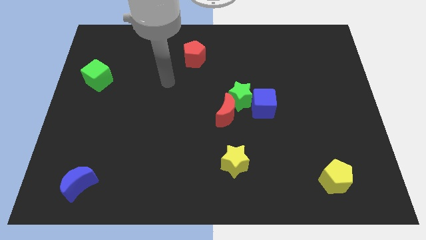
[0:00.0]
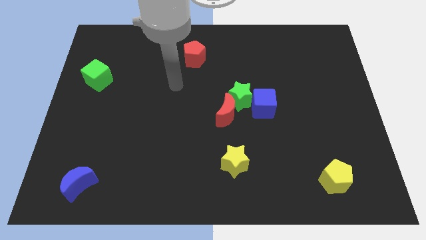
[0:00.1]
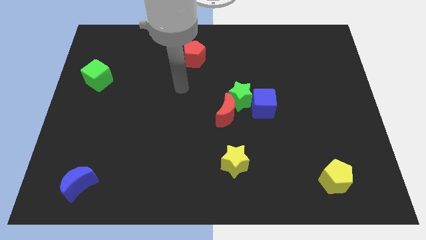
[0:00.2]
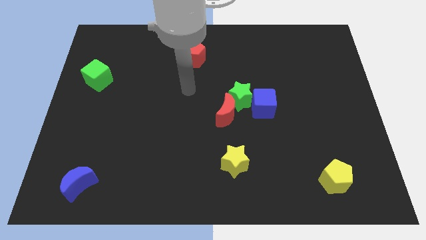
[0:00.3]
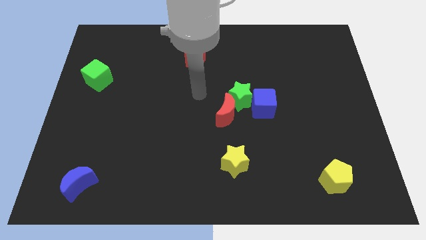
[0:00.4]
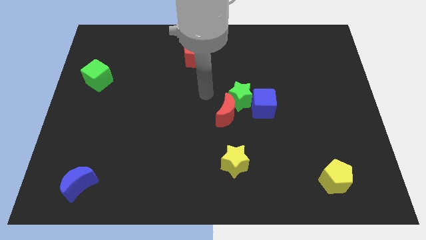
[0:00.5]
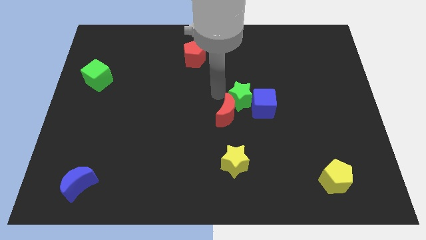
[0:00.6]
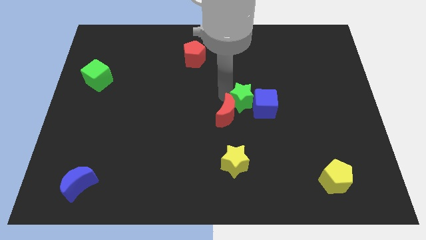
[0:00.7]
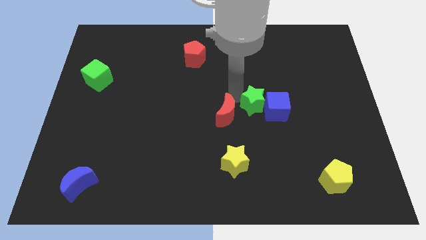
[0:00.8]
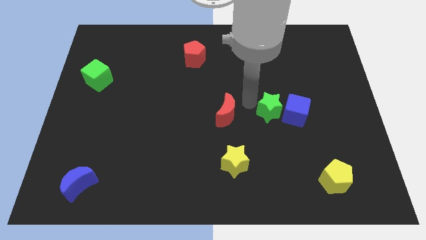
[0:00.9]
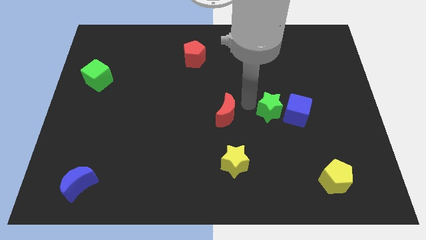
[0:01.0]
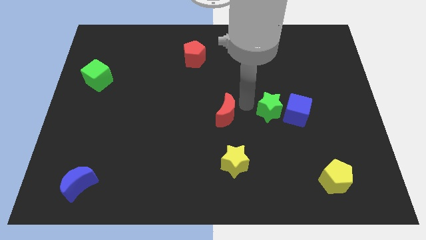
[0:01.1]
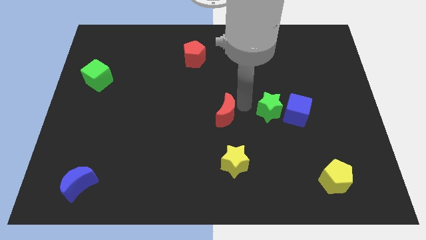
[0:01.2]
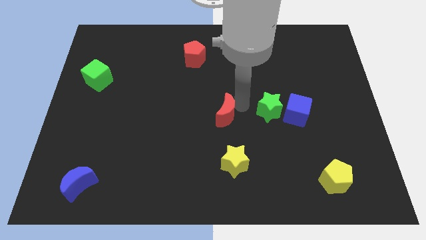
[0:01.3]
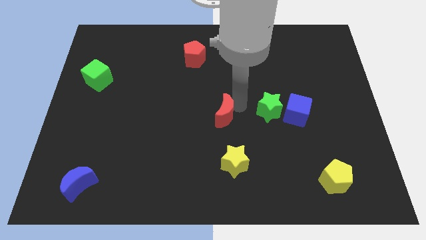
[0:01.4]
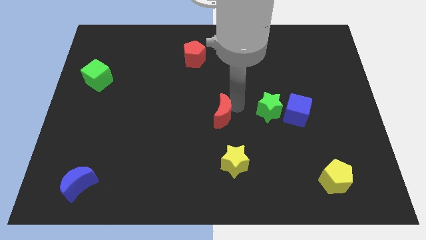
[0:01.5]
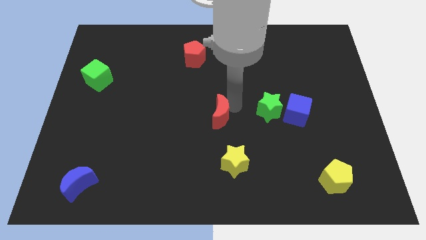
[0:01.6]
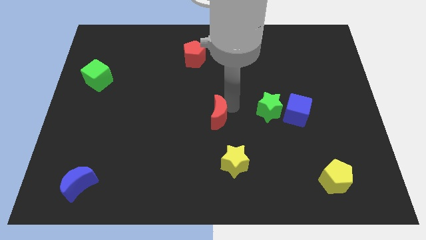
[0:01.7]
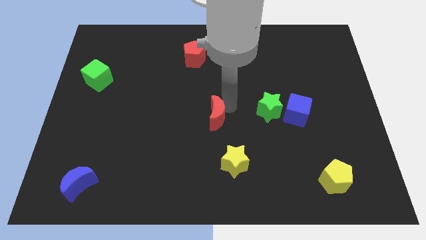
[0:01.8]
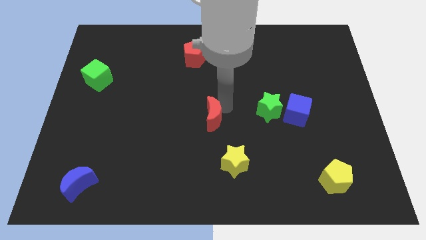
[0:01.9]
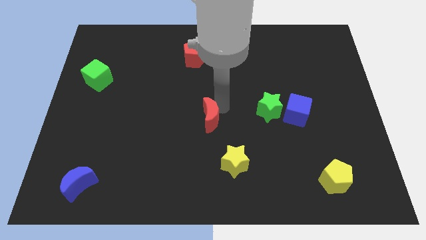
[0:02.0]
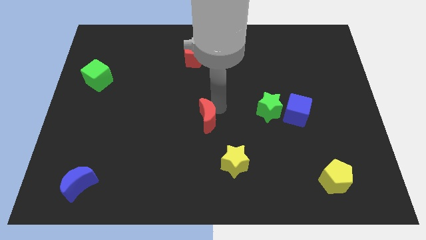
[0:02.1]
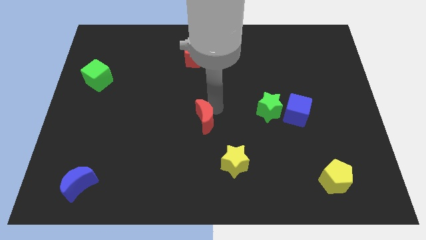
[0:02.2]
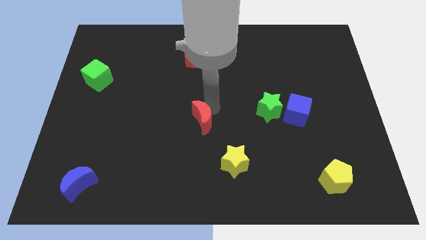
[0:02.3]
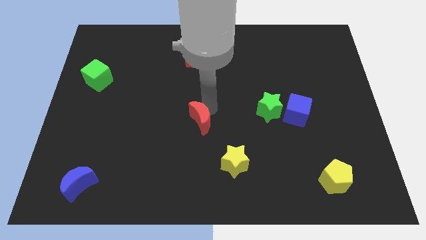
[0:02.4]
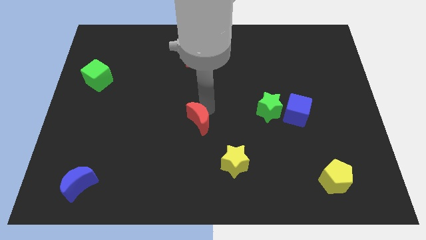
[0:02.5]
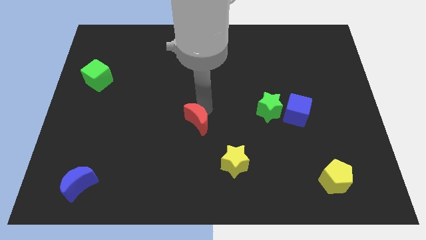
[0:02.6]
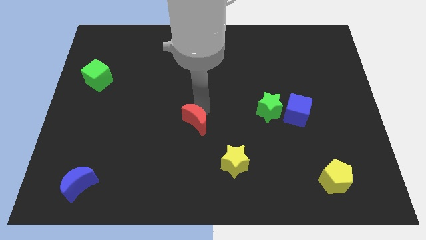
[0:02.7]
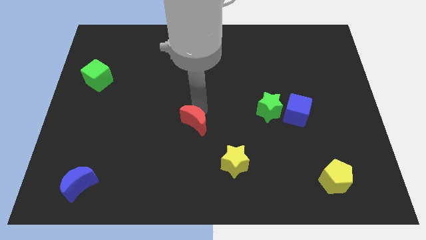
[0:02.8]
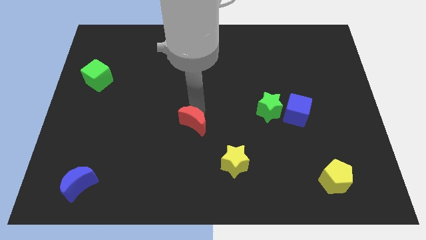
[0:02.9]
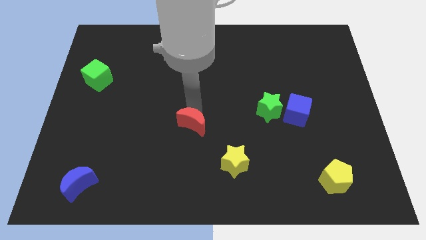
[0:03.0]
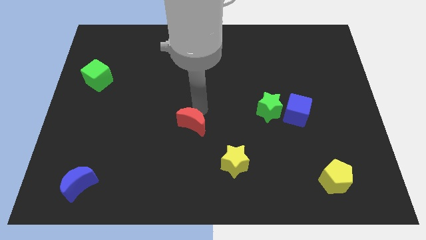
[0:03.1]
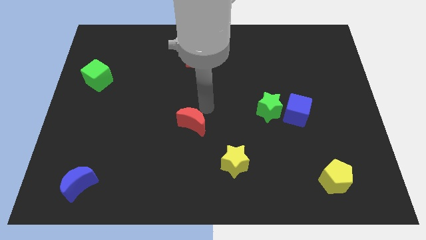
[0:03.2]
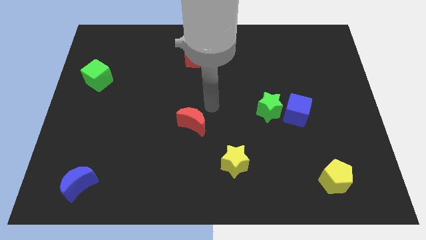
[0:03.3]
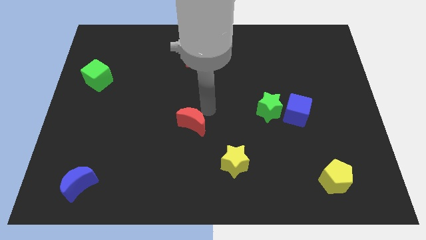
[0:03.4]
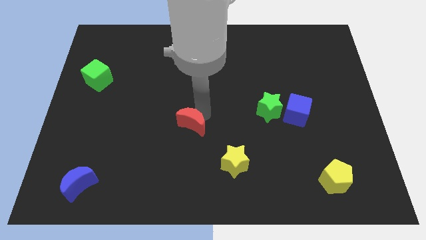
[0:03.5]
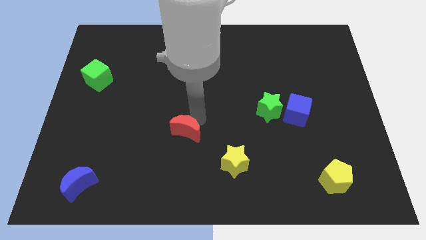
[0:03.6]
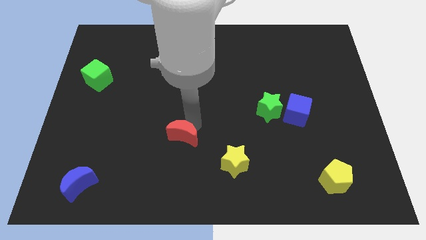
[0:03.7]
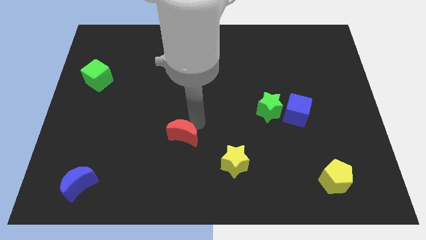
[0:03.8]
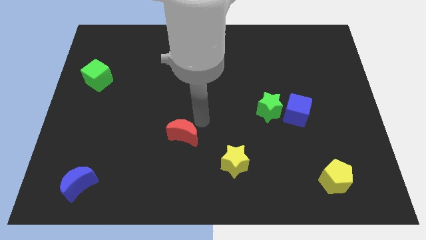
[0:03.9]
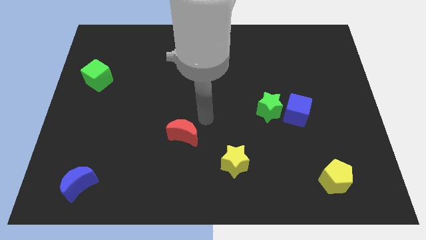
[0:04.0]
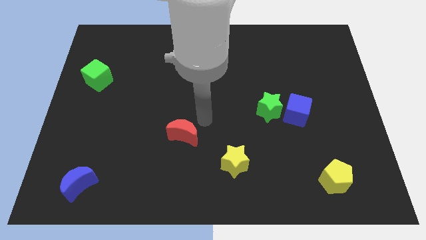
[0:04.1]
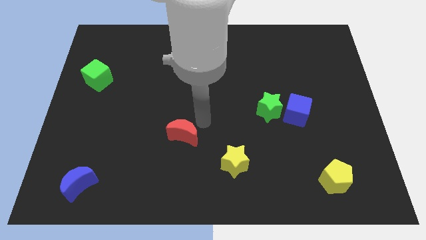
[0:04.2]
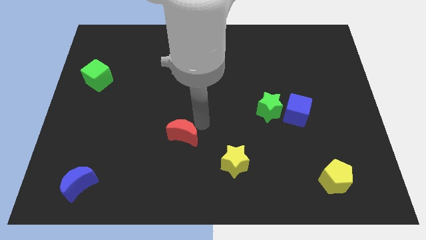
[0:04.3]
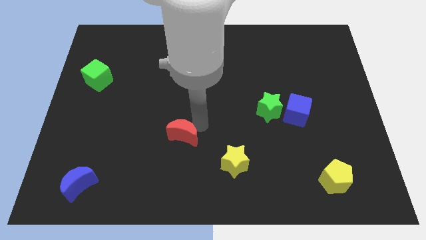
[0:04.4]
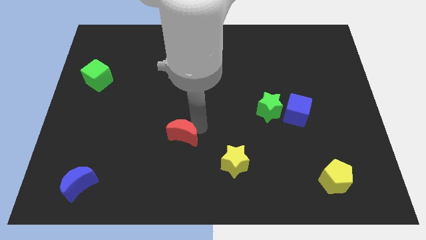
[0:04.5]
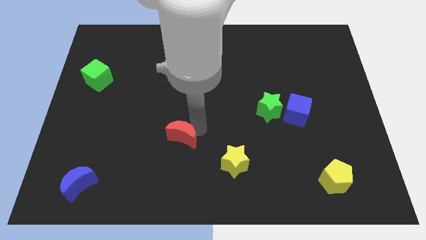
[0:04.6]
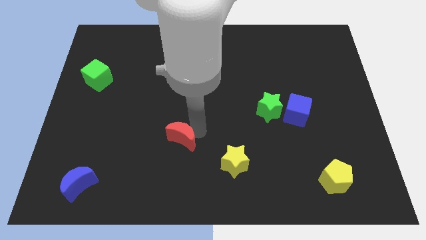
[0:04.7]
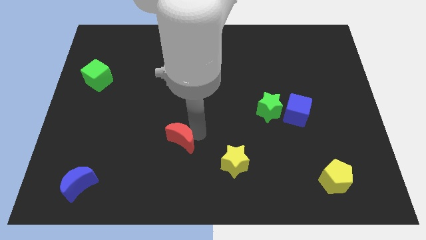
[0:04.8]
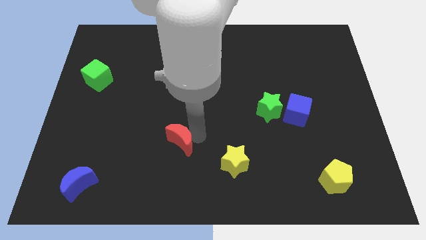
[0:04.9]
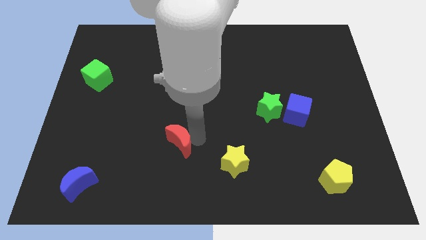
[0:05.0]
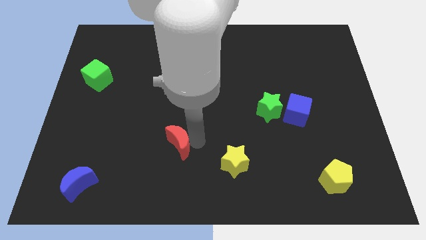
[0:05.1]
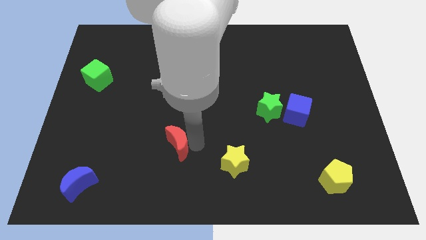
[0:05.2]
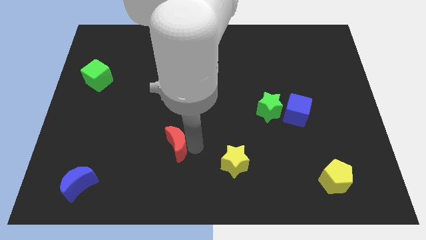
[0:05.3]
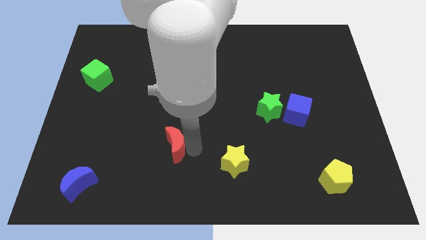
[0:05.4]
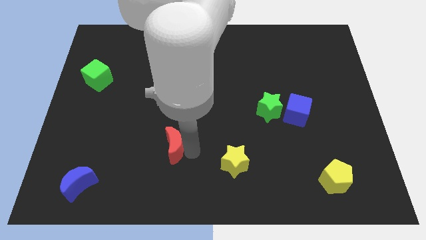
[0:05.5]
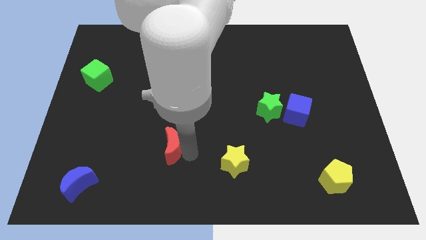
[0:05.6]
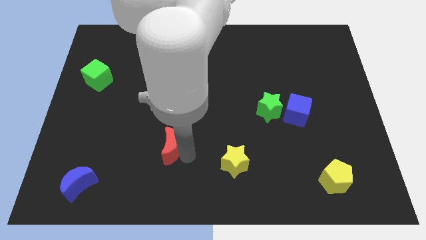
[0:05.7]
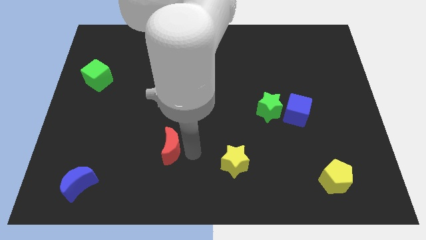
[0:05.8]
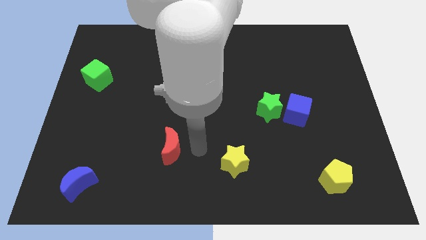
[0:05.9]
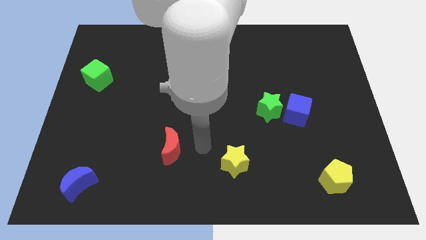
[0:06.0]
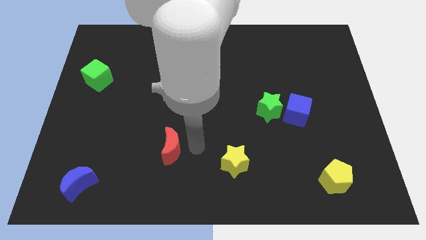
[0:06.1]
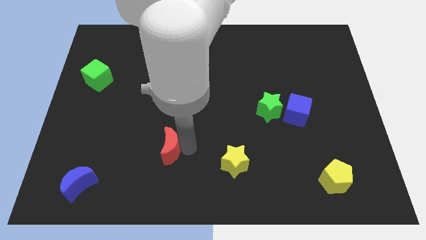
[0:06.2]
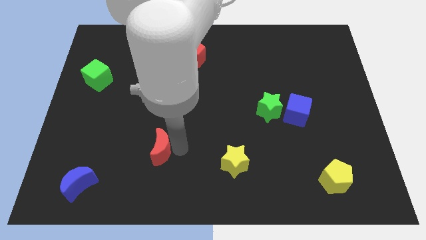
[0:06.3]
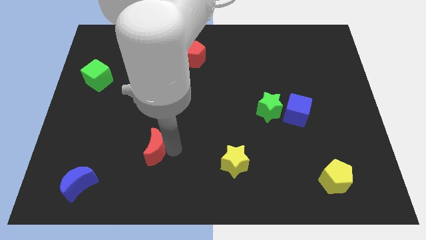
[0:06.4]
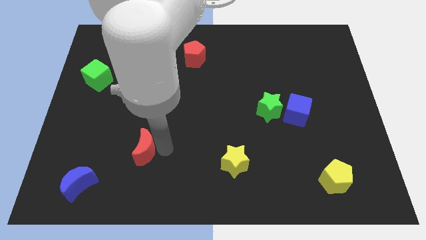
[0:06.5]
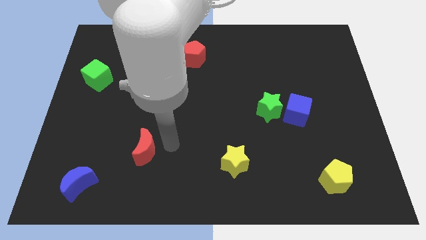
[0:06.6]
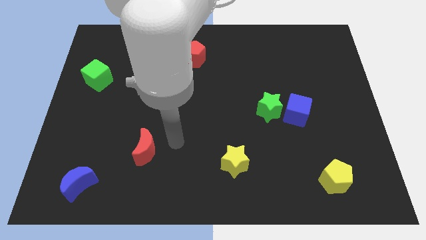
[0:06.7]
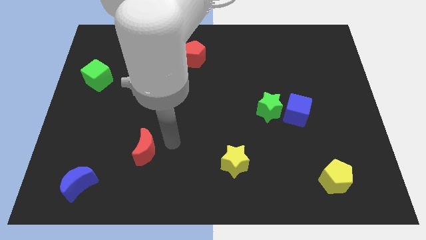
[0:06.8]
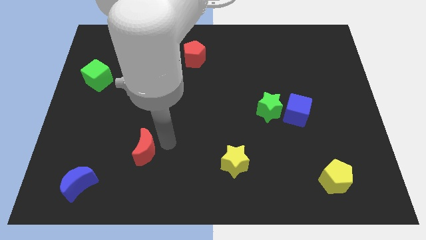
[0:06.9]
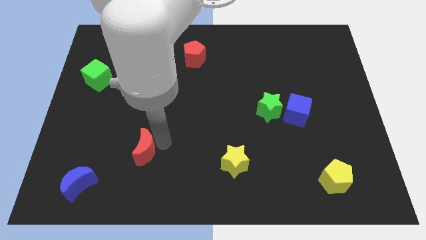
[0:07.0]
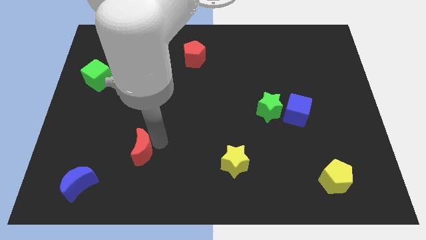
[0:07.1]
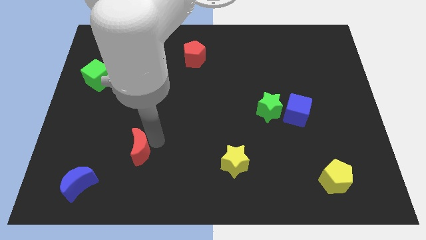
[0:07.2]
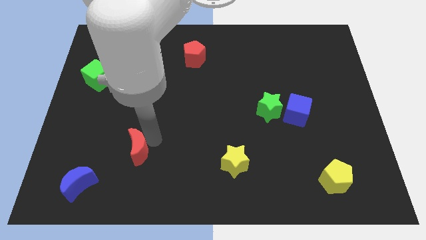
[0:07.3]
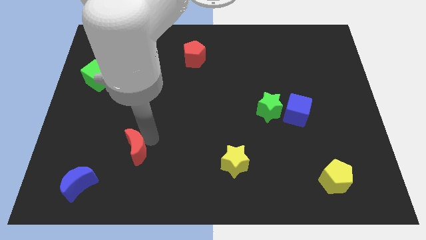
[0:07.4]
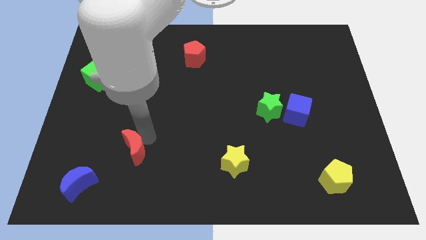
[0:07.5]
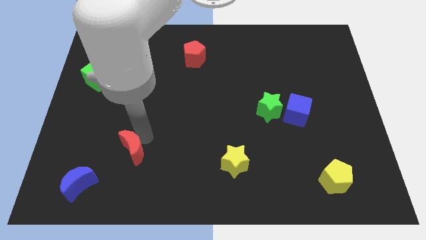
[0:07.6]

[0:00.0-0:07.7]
move the red moon to the top right side of the blue moon
